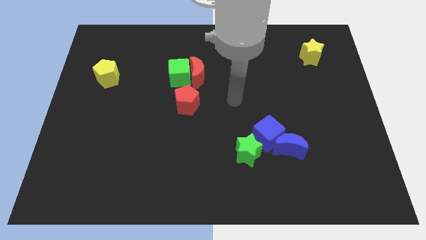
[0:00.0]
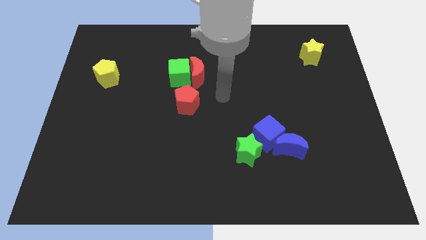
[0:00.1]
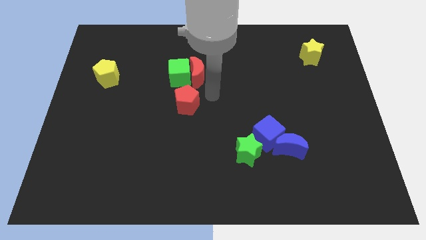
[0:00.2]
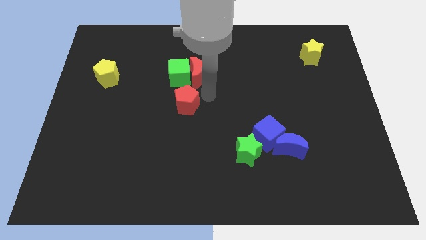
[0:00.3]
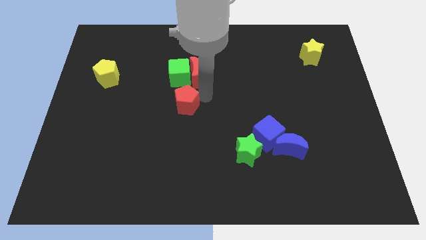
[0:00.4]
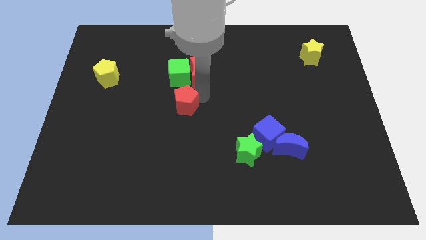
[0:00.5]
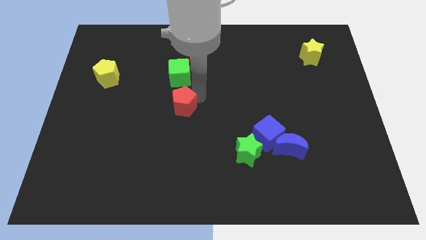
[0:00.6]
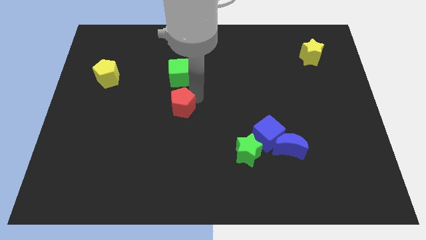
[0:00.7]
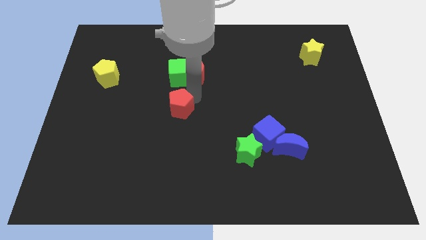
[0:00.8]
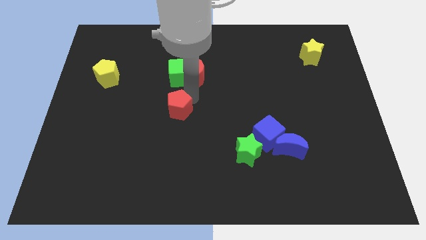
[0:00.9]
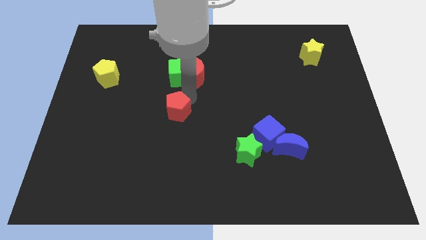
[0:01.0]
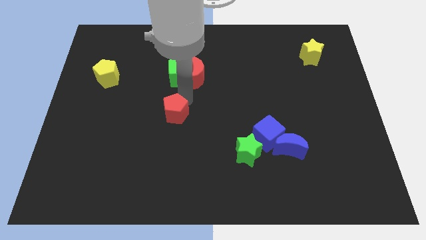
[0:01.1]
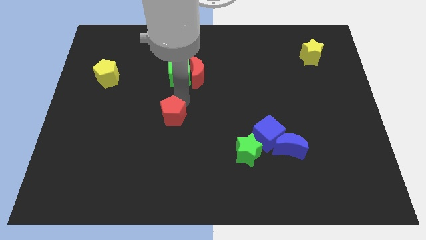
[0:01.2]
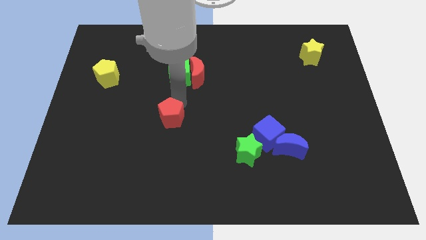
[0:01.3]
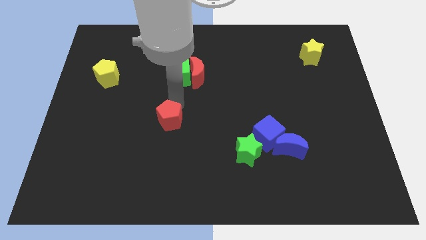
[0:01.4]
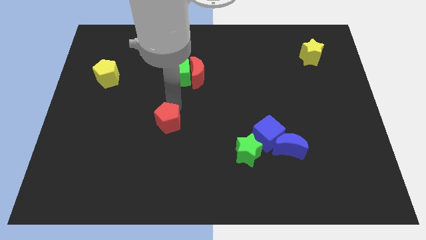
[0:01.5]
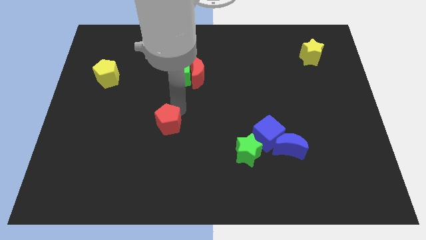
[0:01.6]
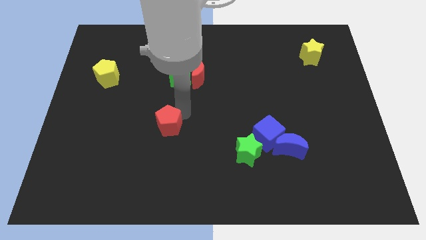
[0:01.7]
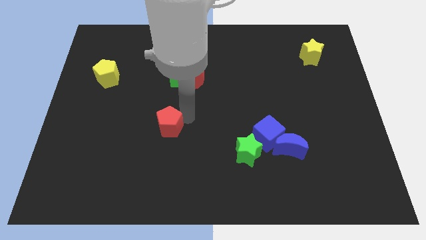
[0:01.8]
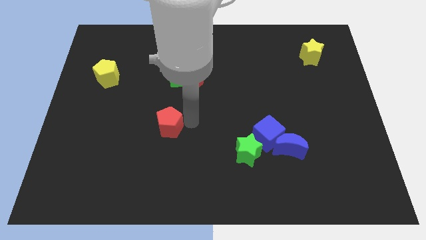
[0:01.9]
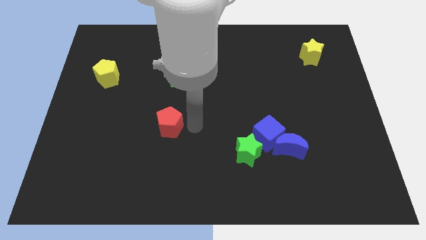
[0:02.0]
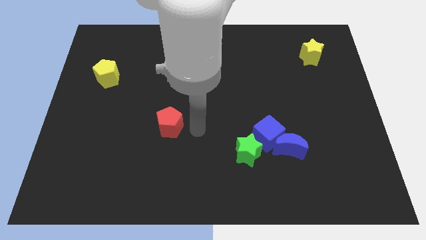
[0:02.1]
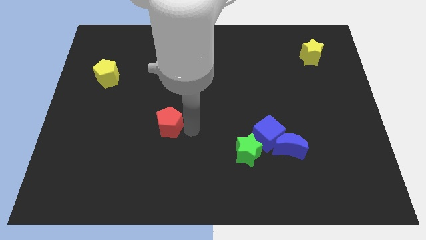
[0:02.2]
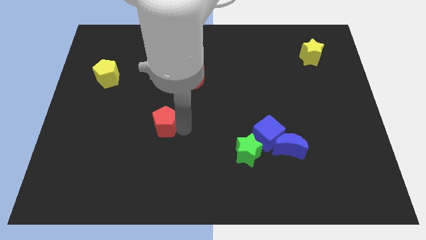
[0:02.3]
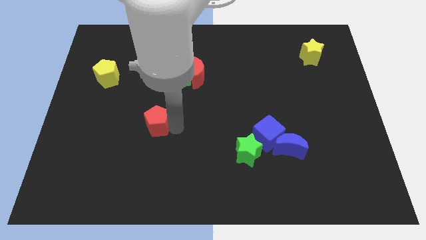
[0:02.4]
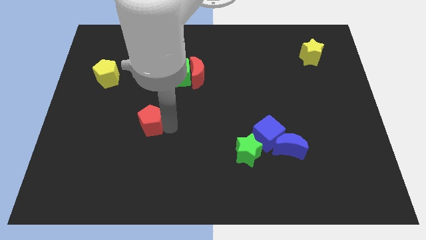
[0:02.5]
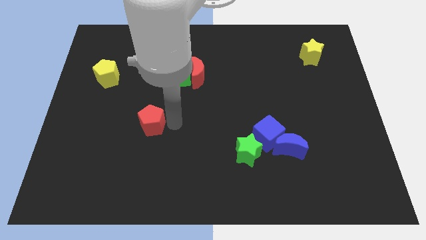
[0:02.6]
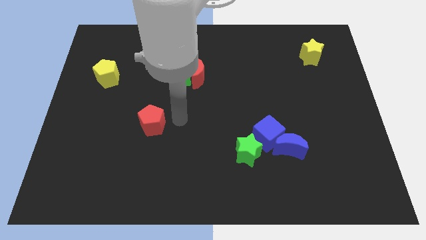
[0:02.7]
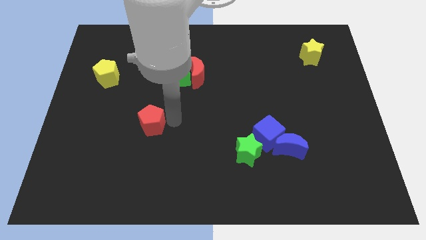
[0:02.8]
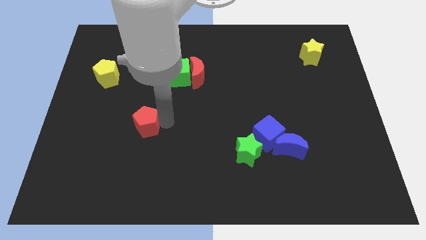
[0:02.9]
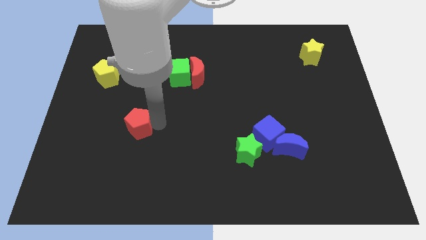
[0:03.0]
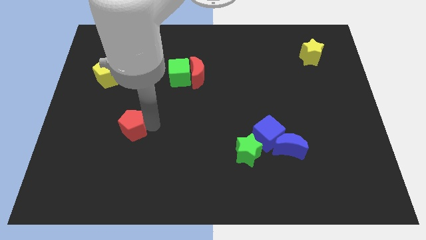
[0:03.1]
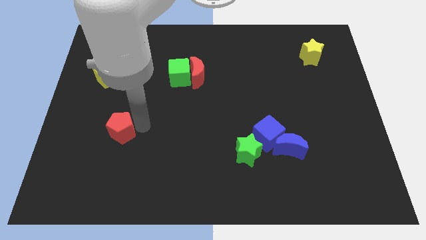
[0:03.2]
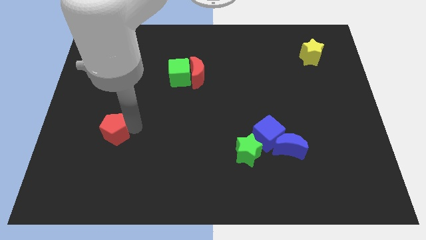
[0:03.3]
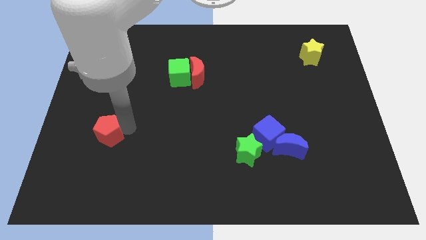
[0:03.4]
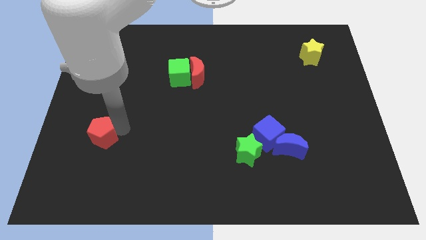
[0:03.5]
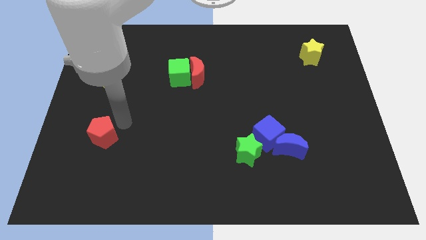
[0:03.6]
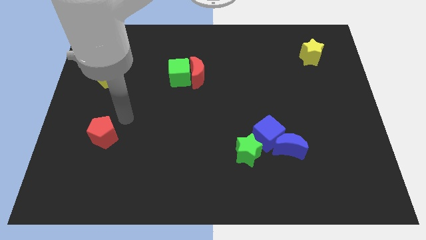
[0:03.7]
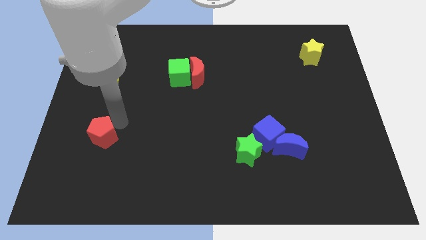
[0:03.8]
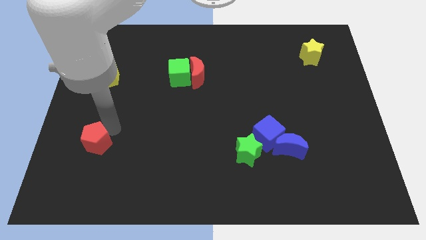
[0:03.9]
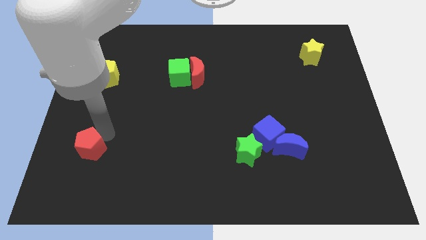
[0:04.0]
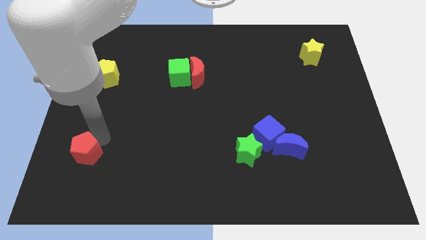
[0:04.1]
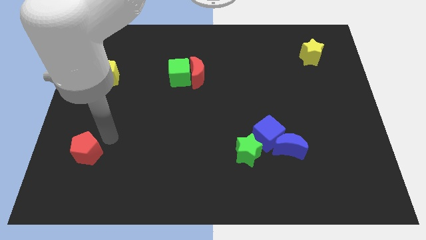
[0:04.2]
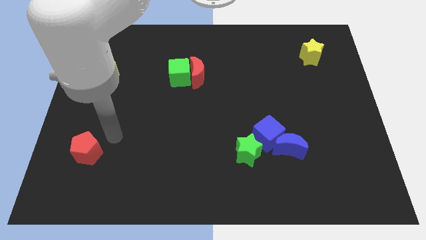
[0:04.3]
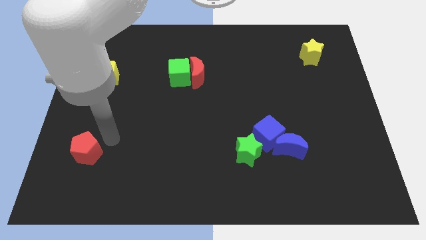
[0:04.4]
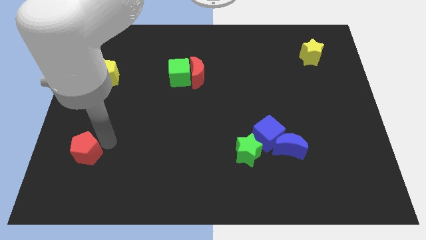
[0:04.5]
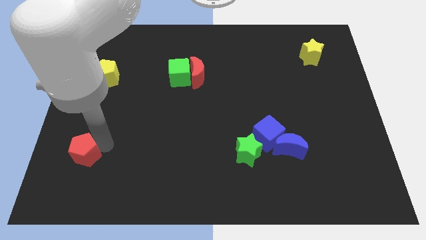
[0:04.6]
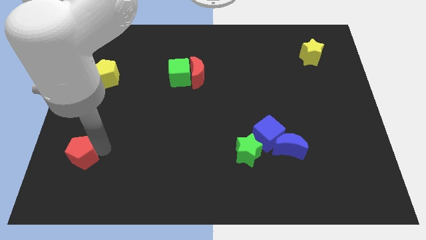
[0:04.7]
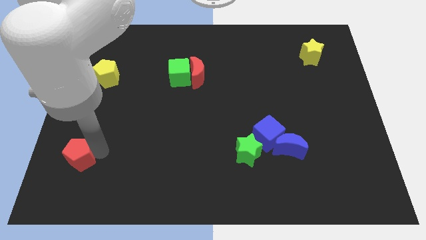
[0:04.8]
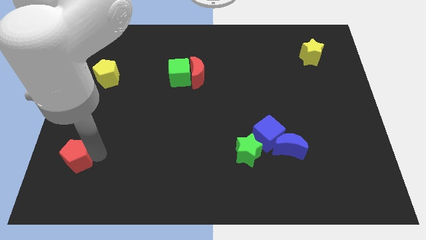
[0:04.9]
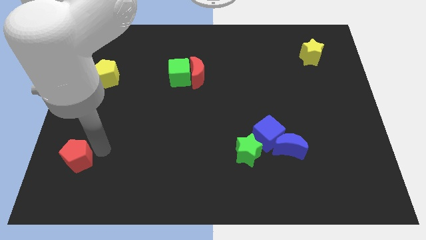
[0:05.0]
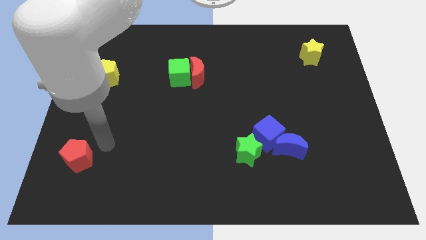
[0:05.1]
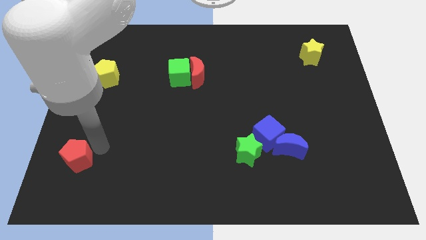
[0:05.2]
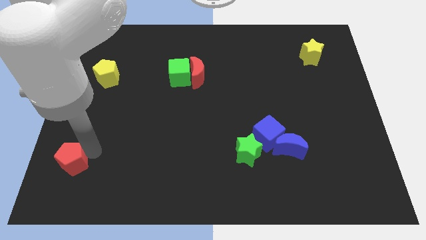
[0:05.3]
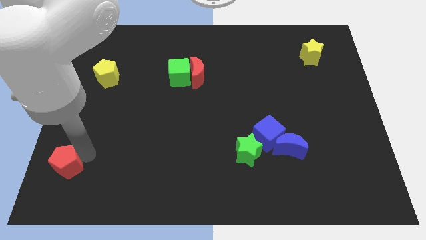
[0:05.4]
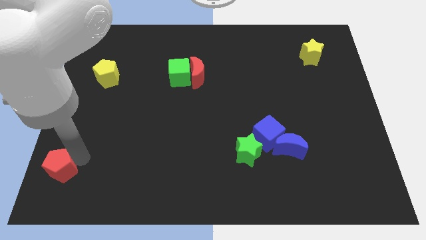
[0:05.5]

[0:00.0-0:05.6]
push the red pentagon to the lower left corner
